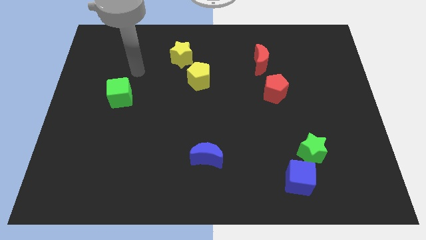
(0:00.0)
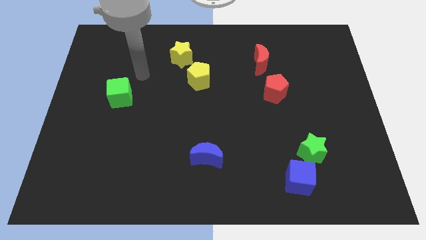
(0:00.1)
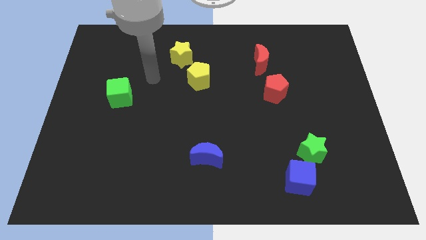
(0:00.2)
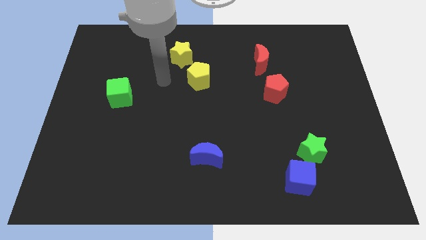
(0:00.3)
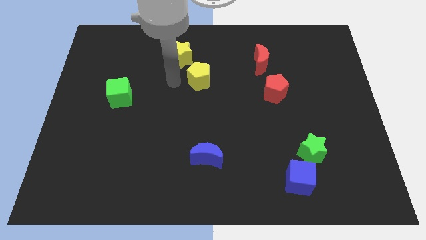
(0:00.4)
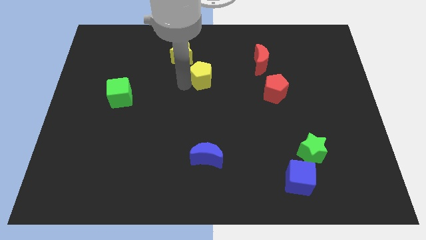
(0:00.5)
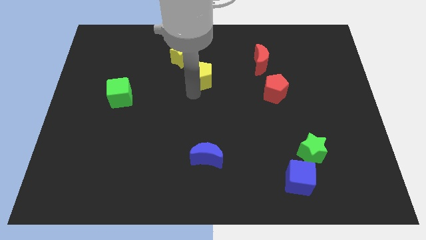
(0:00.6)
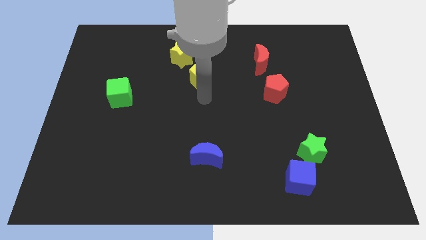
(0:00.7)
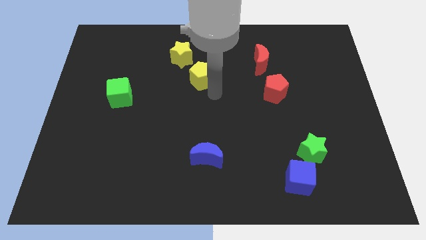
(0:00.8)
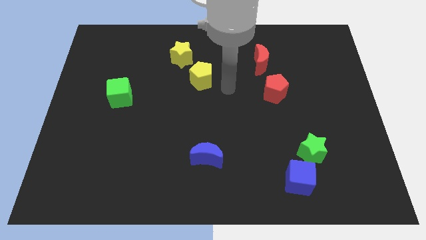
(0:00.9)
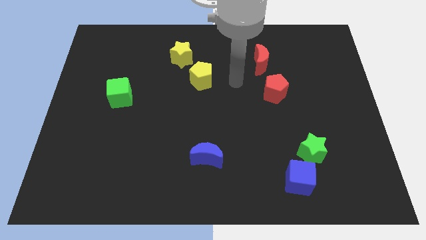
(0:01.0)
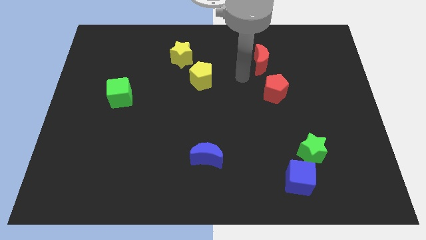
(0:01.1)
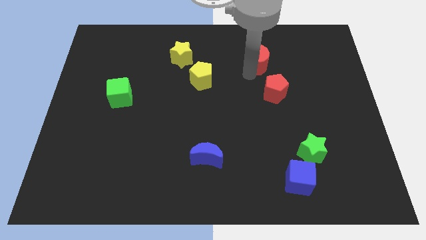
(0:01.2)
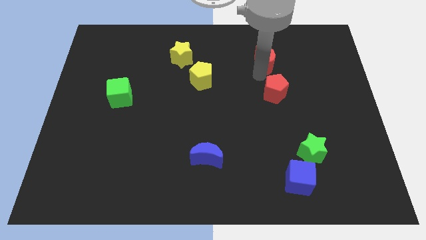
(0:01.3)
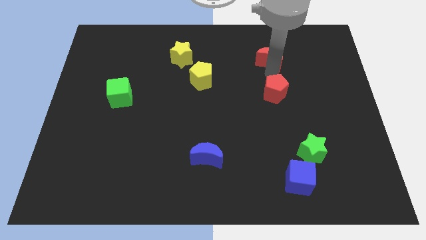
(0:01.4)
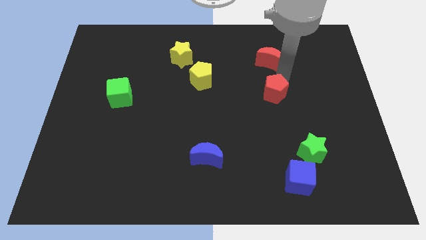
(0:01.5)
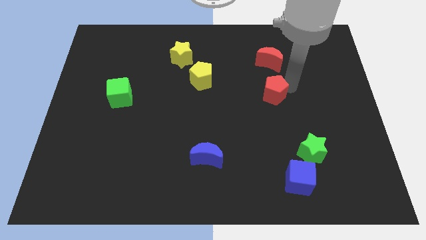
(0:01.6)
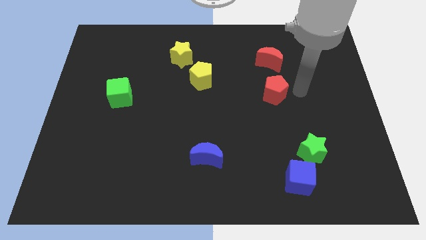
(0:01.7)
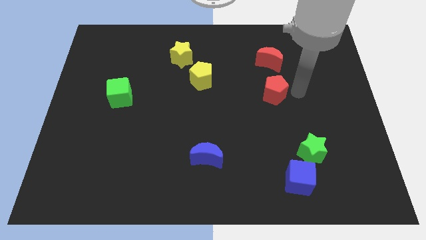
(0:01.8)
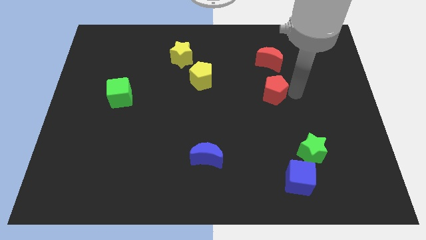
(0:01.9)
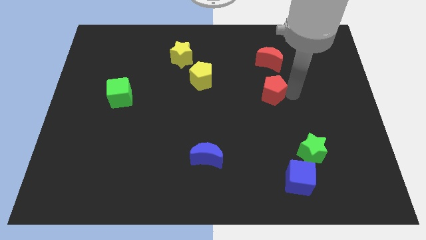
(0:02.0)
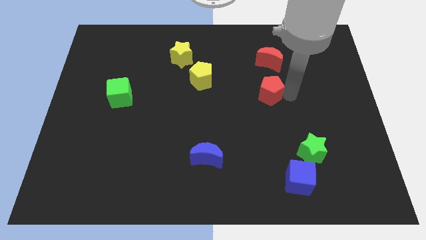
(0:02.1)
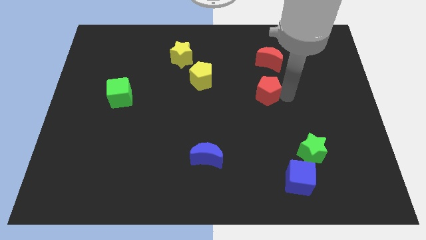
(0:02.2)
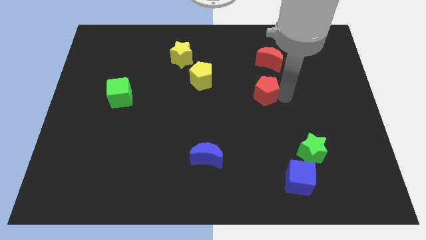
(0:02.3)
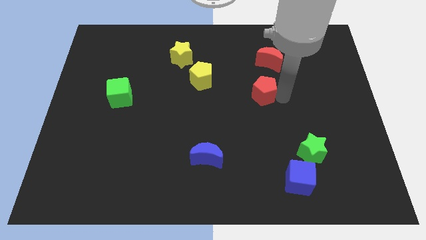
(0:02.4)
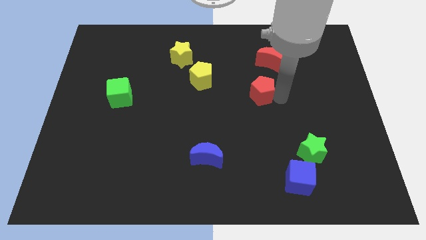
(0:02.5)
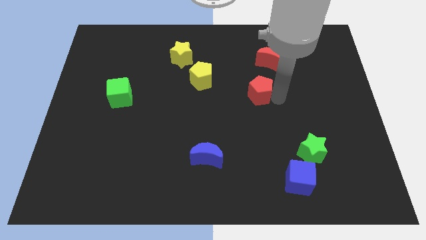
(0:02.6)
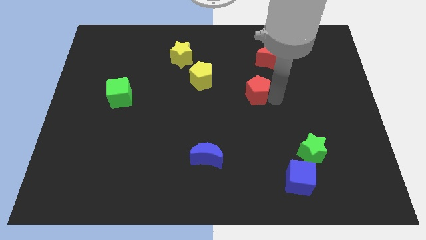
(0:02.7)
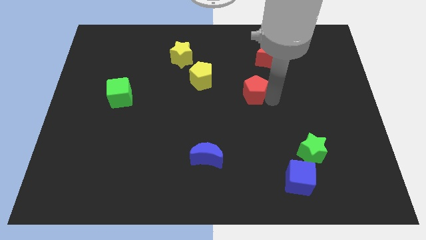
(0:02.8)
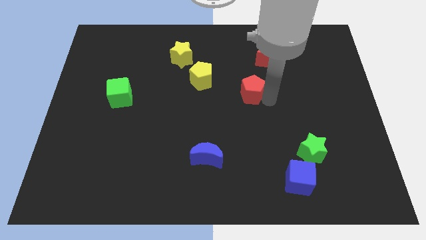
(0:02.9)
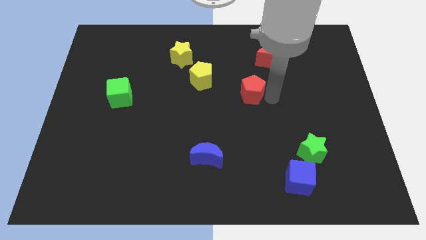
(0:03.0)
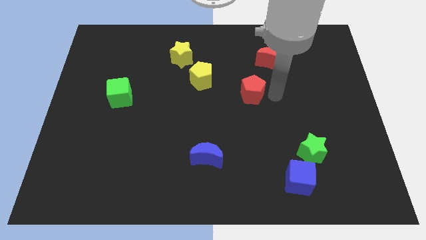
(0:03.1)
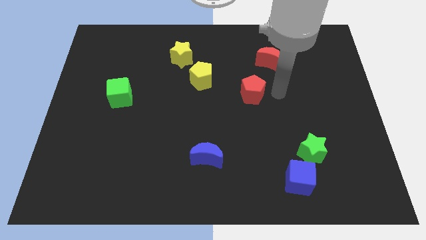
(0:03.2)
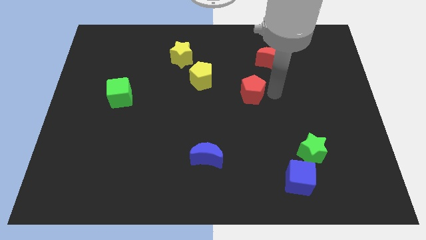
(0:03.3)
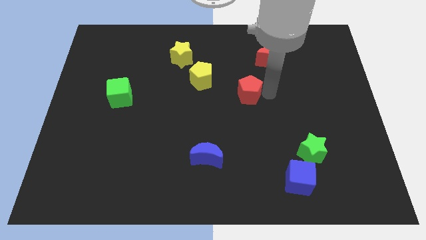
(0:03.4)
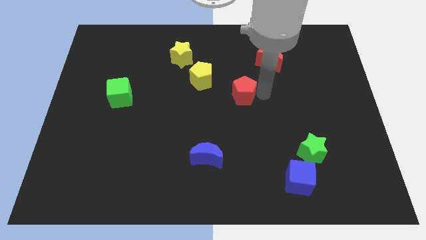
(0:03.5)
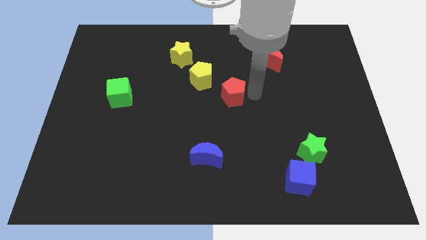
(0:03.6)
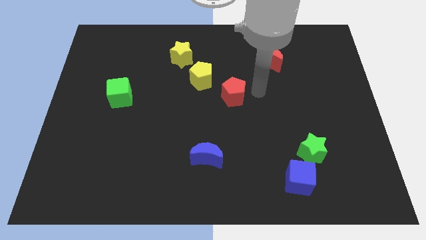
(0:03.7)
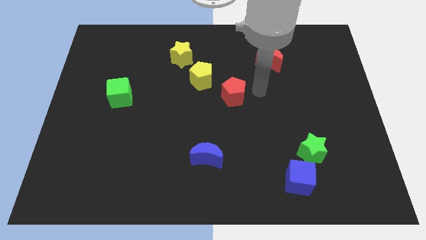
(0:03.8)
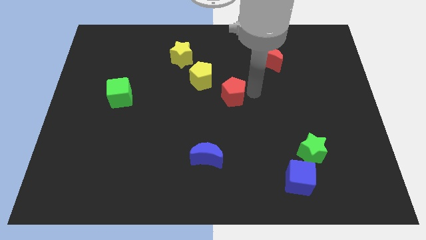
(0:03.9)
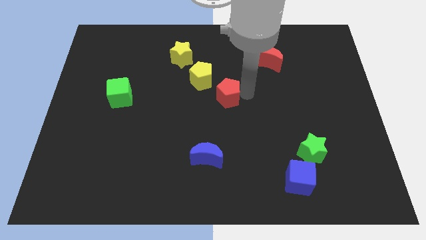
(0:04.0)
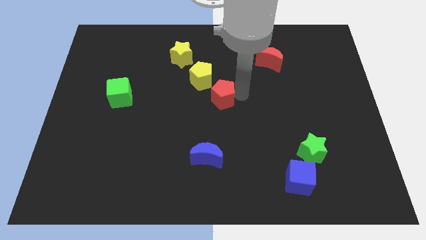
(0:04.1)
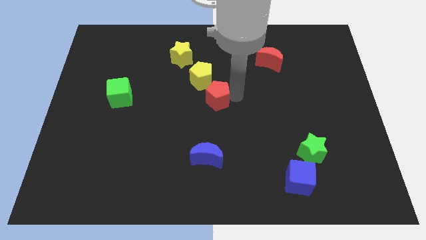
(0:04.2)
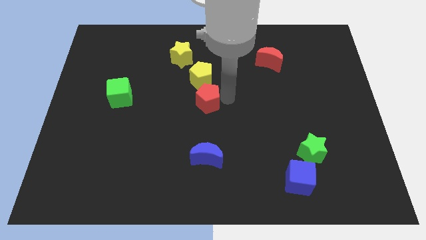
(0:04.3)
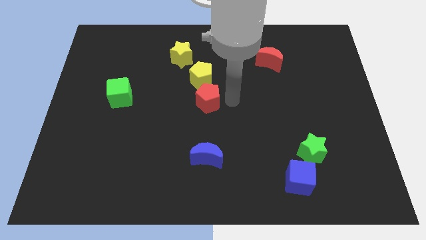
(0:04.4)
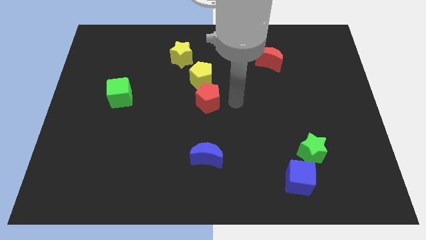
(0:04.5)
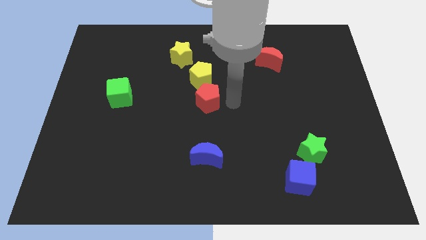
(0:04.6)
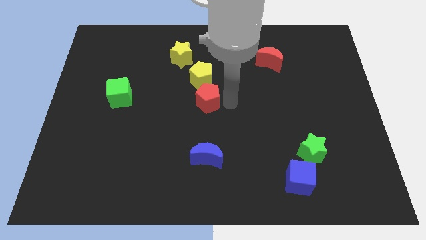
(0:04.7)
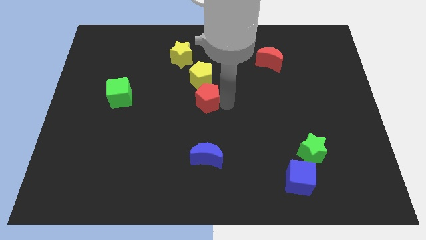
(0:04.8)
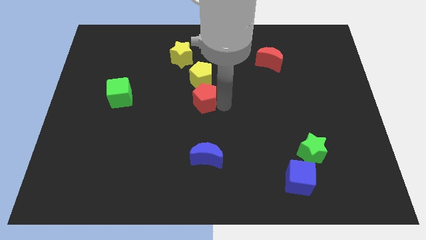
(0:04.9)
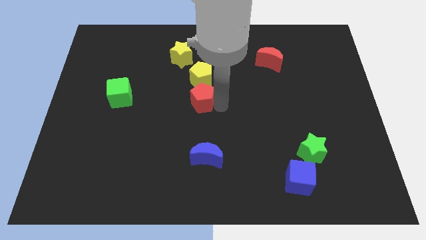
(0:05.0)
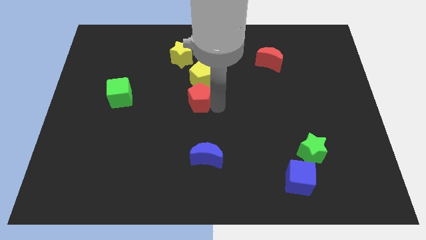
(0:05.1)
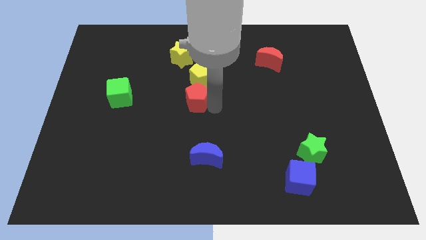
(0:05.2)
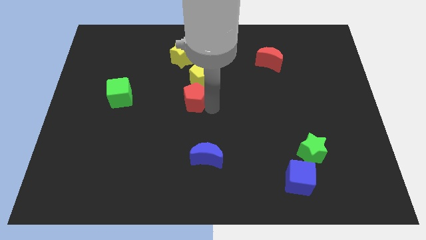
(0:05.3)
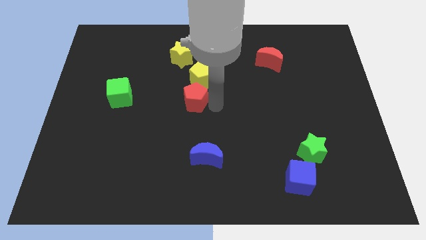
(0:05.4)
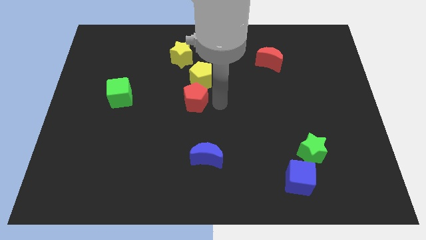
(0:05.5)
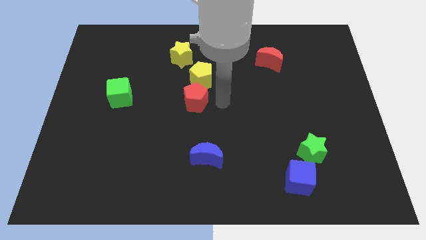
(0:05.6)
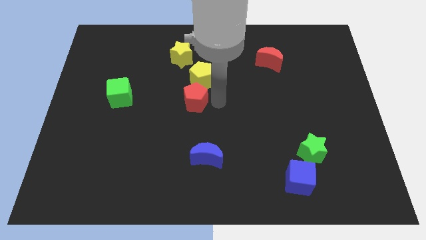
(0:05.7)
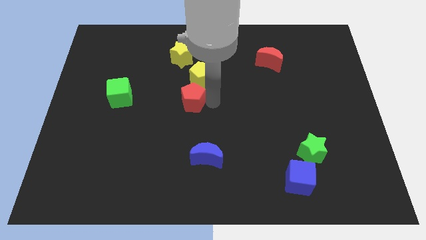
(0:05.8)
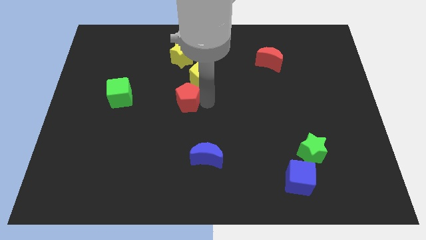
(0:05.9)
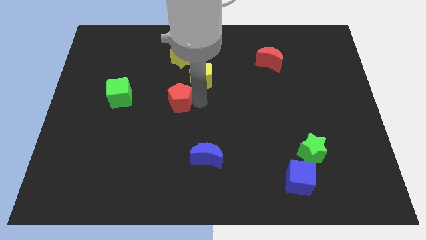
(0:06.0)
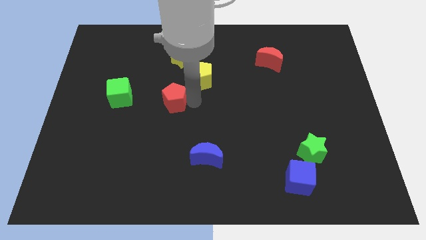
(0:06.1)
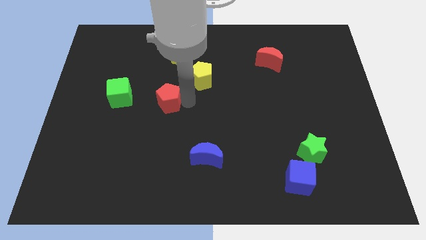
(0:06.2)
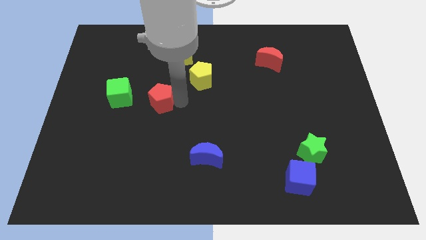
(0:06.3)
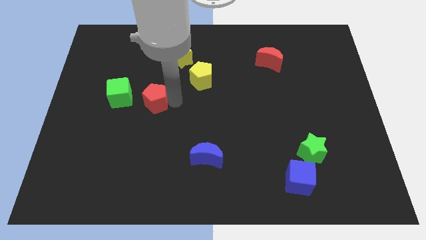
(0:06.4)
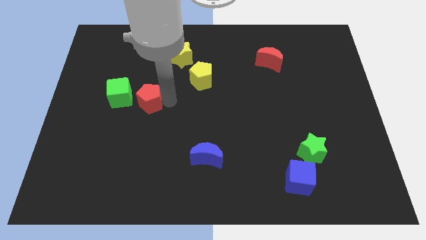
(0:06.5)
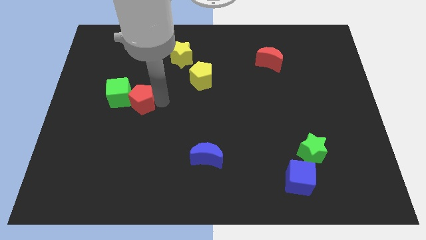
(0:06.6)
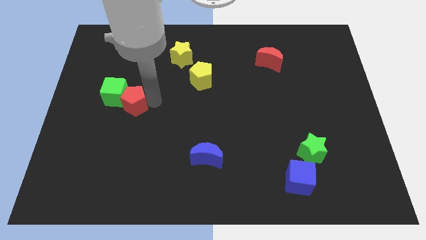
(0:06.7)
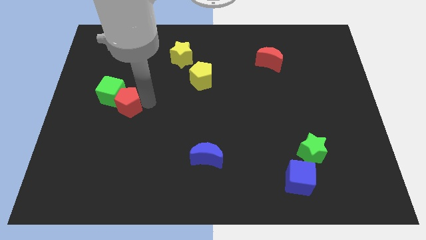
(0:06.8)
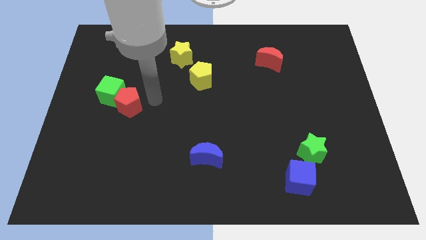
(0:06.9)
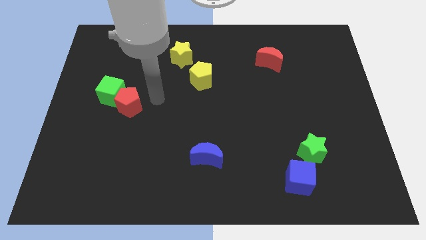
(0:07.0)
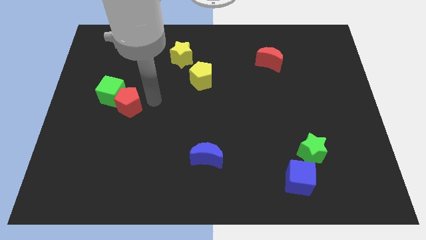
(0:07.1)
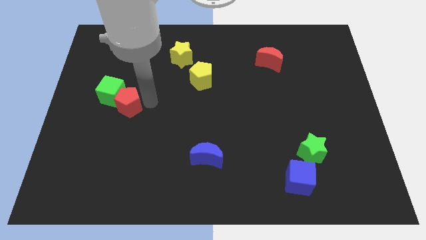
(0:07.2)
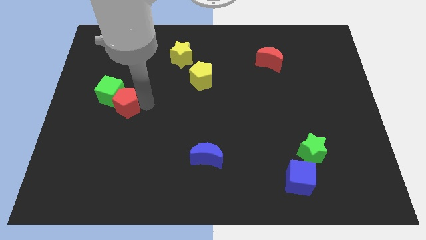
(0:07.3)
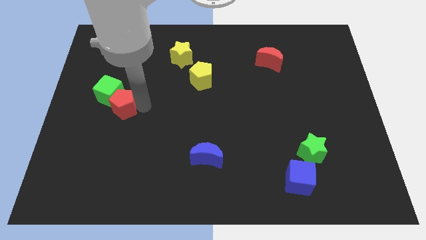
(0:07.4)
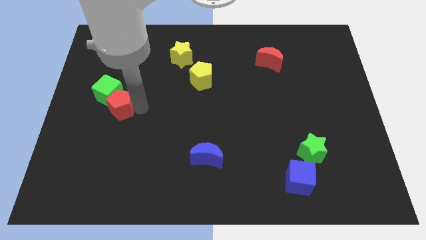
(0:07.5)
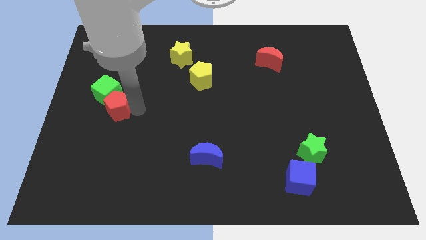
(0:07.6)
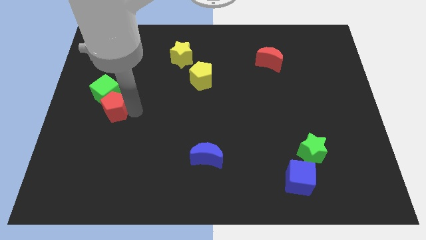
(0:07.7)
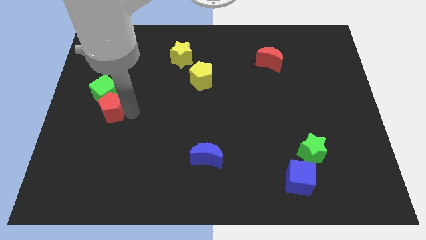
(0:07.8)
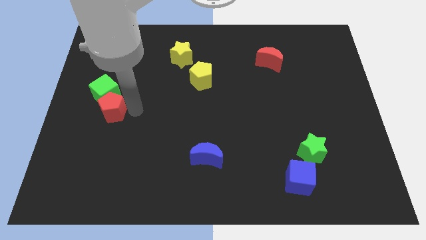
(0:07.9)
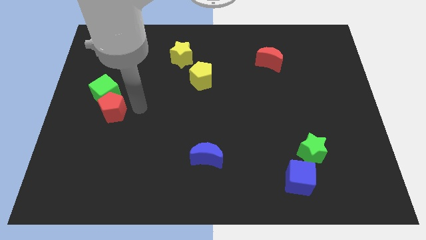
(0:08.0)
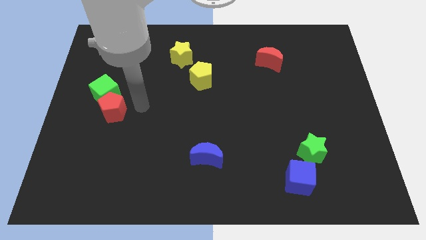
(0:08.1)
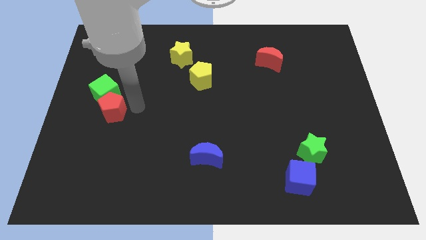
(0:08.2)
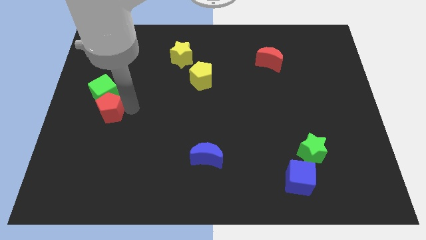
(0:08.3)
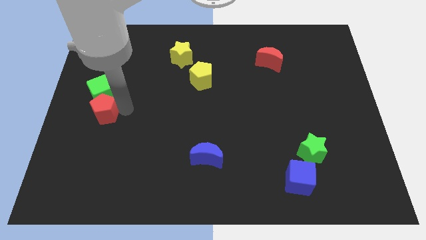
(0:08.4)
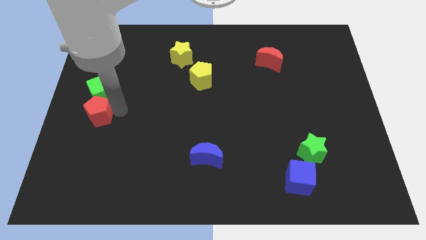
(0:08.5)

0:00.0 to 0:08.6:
put the red pentagon to the left side of the board
